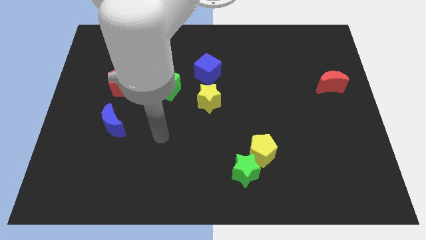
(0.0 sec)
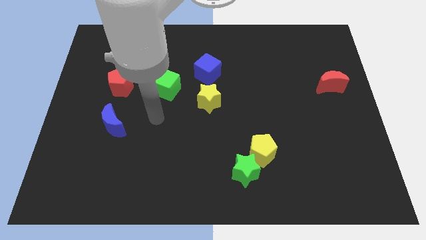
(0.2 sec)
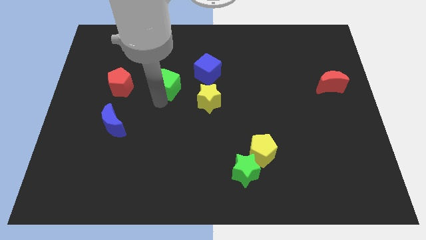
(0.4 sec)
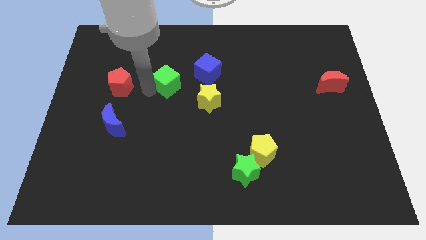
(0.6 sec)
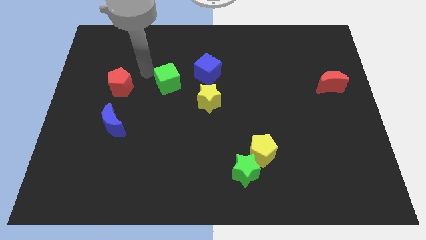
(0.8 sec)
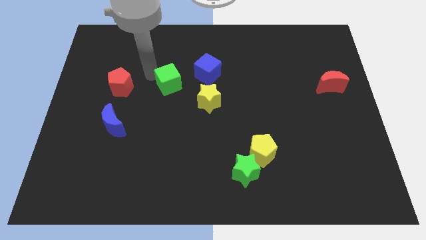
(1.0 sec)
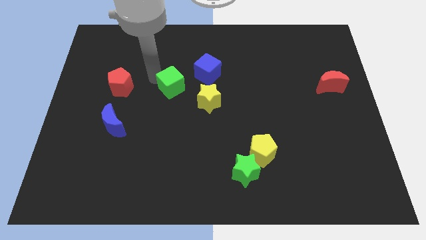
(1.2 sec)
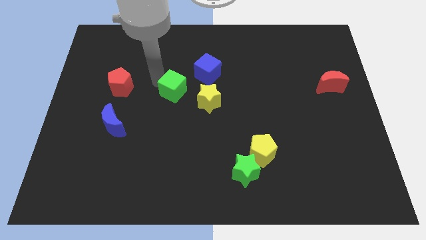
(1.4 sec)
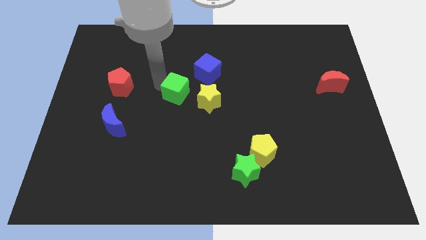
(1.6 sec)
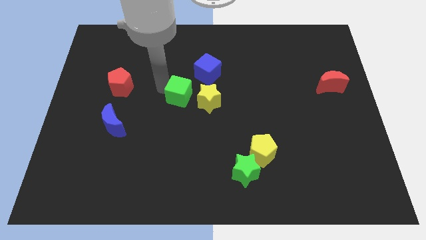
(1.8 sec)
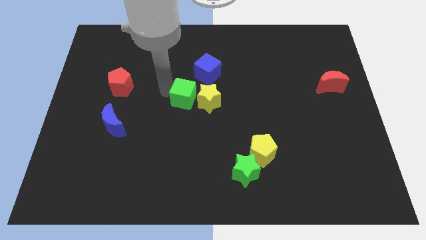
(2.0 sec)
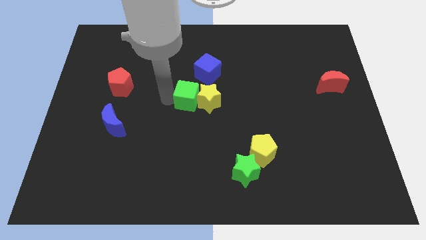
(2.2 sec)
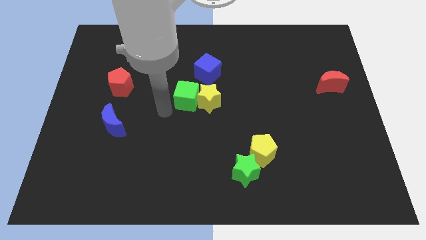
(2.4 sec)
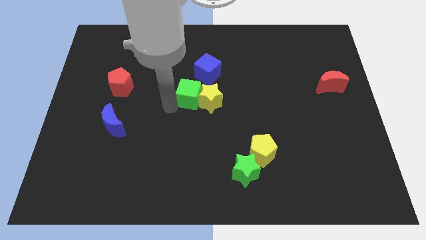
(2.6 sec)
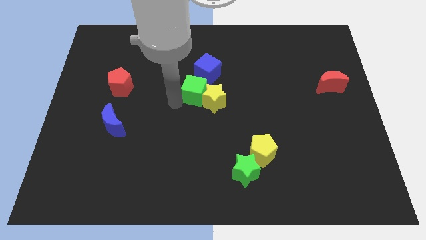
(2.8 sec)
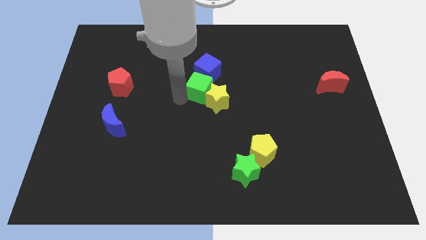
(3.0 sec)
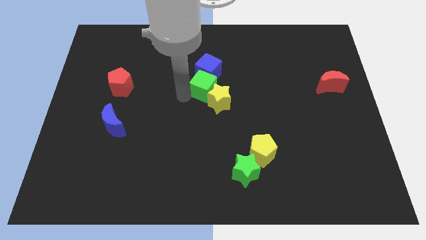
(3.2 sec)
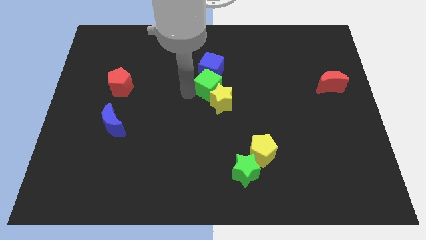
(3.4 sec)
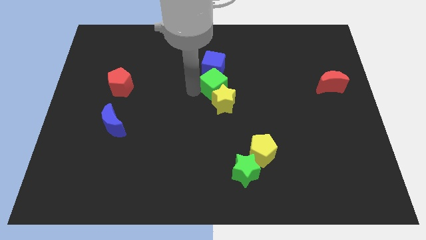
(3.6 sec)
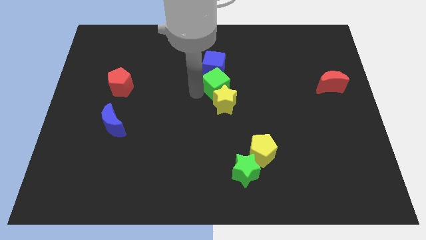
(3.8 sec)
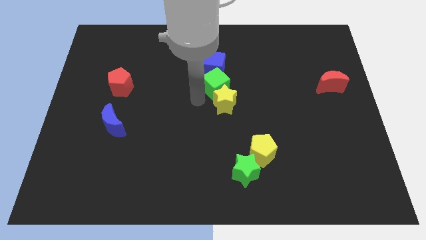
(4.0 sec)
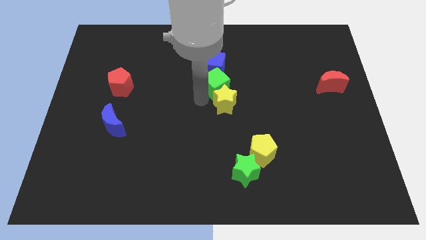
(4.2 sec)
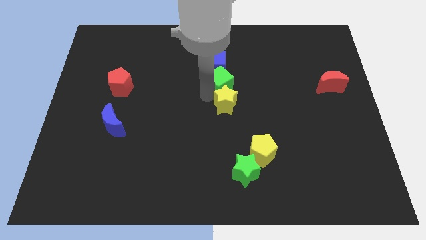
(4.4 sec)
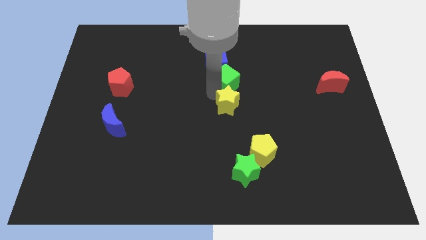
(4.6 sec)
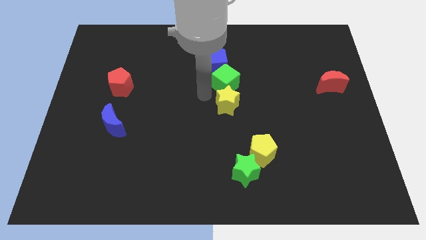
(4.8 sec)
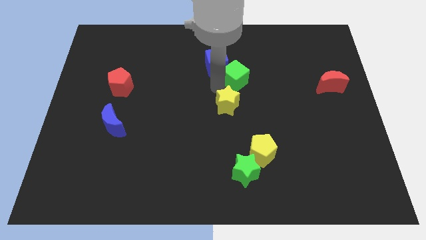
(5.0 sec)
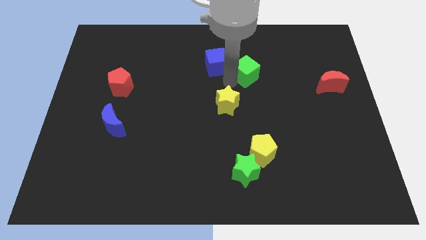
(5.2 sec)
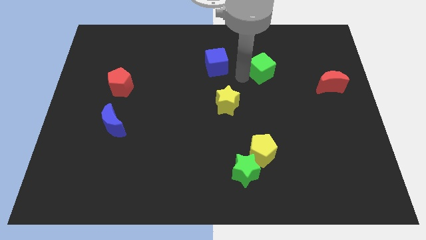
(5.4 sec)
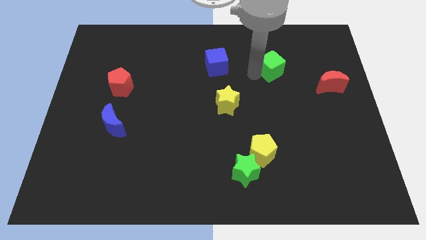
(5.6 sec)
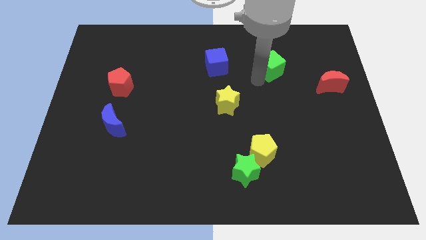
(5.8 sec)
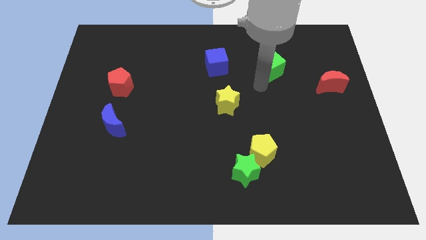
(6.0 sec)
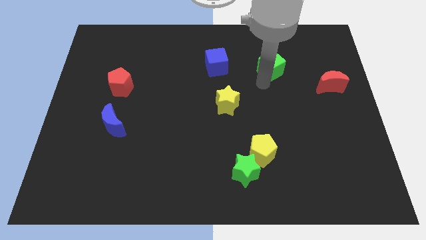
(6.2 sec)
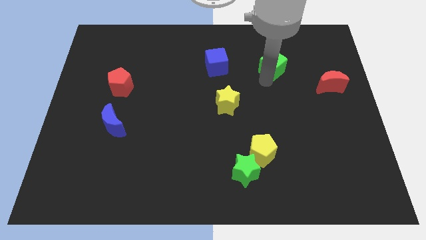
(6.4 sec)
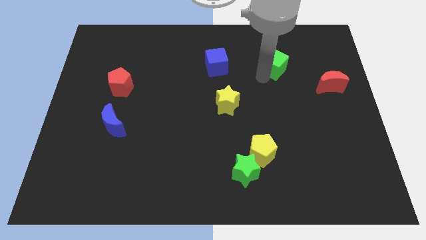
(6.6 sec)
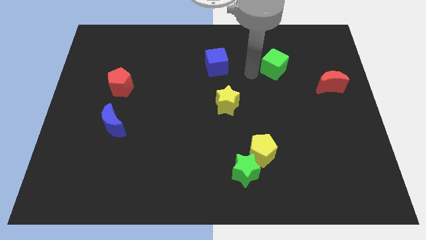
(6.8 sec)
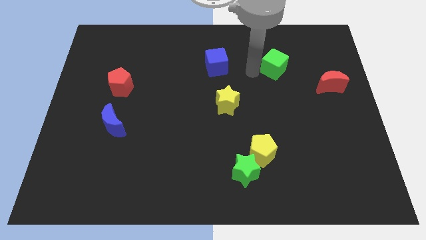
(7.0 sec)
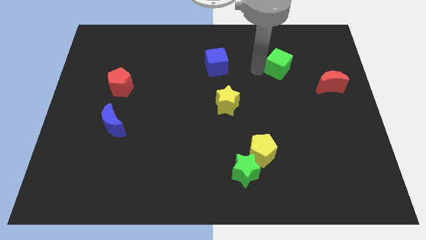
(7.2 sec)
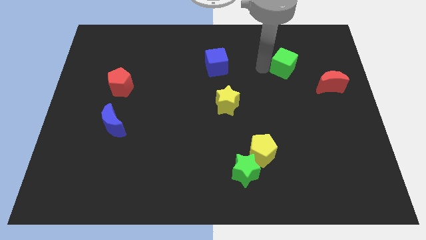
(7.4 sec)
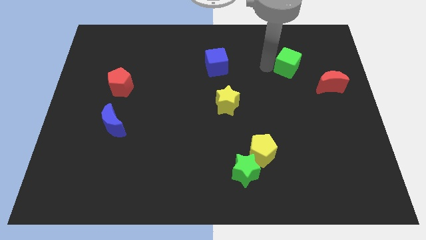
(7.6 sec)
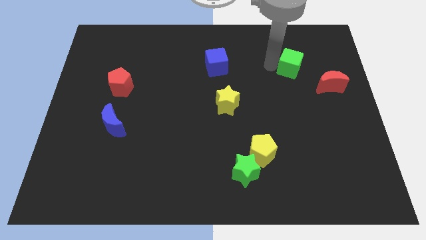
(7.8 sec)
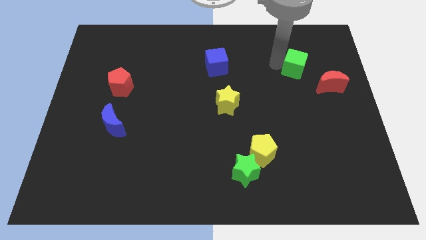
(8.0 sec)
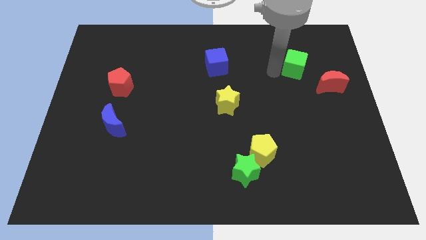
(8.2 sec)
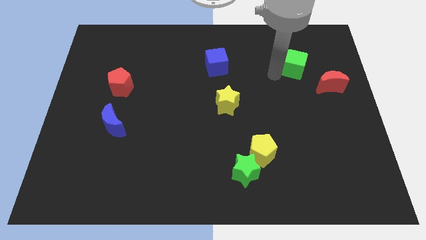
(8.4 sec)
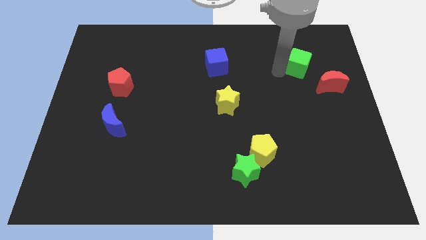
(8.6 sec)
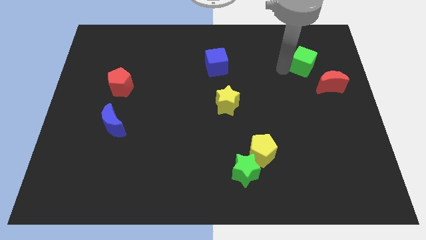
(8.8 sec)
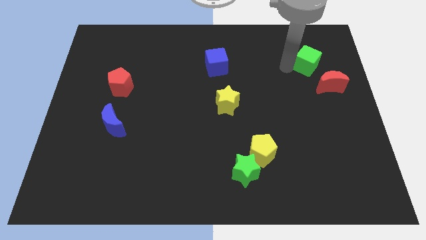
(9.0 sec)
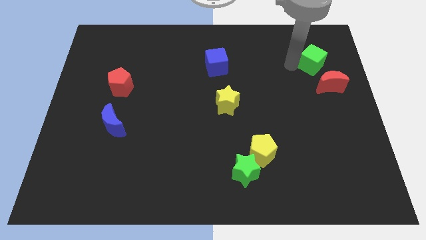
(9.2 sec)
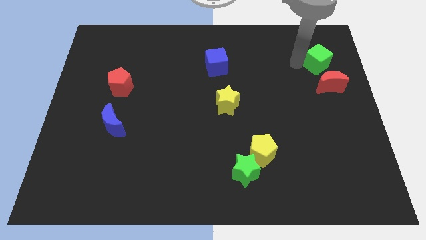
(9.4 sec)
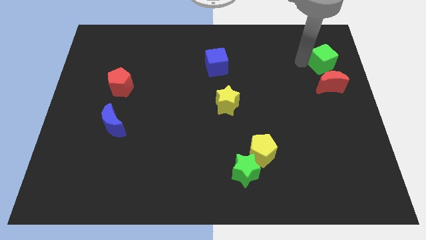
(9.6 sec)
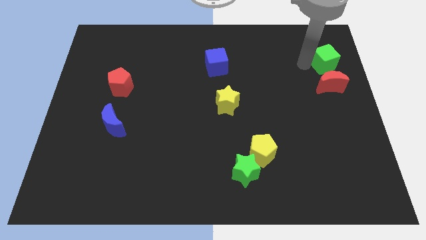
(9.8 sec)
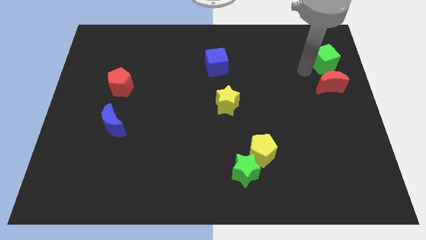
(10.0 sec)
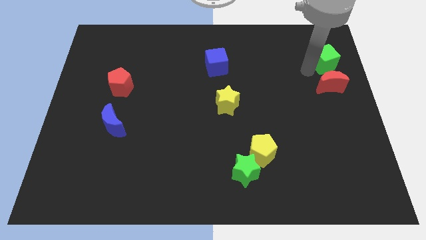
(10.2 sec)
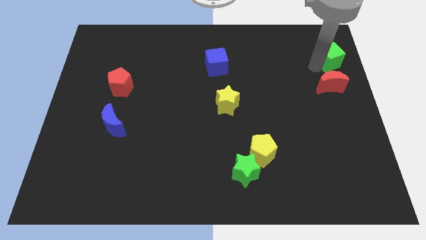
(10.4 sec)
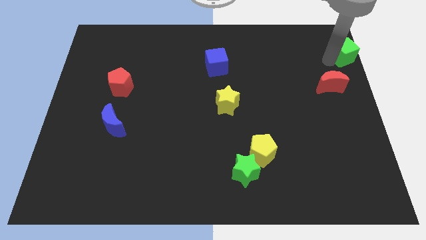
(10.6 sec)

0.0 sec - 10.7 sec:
slide the green cube to the upper right corner

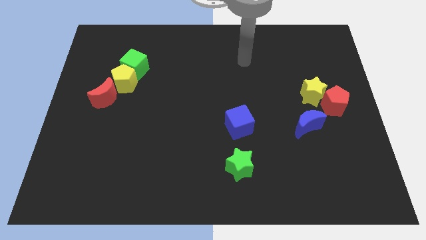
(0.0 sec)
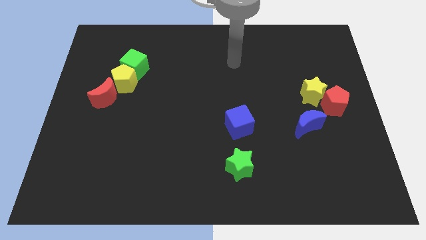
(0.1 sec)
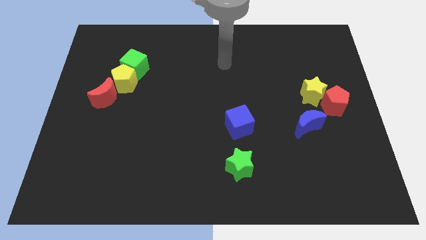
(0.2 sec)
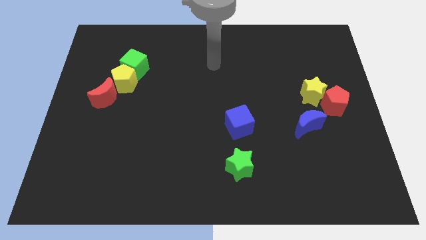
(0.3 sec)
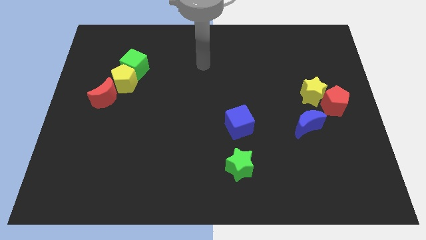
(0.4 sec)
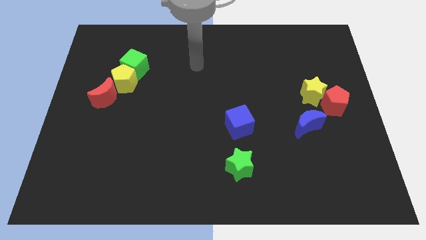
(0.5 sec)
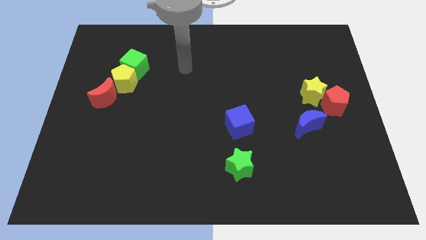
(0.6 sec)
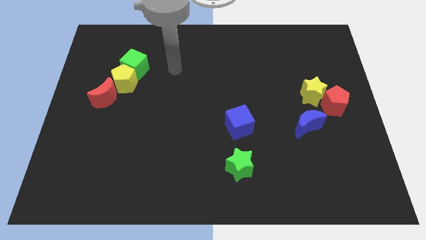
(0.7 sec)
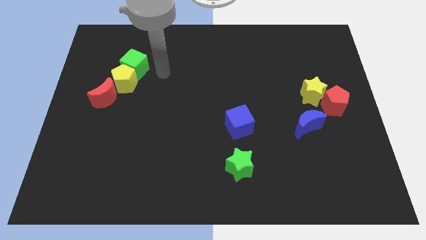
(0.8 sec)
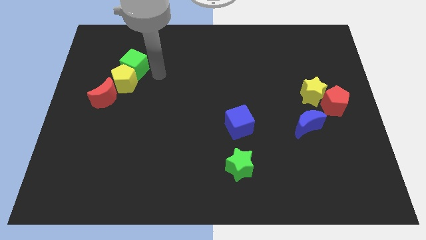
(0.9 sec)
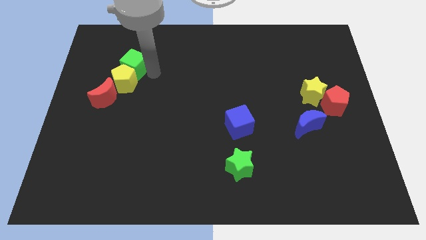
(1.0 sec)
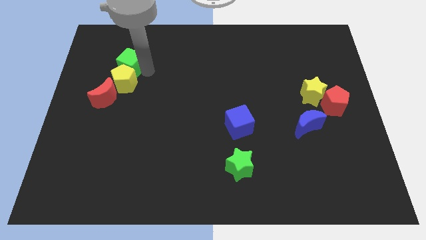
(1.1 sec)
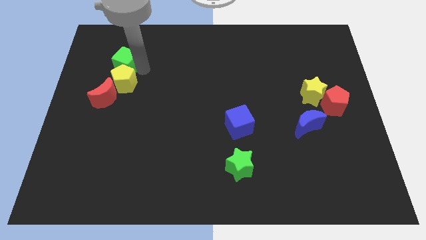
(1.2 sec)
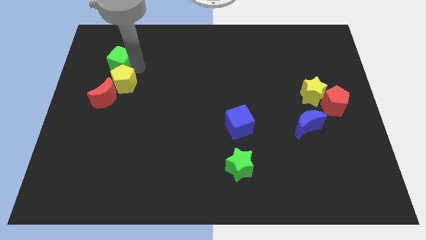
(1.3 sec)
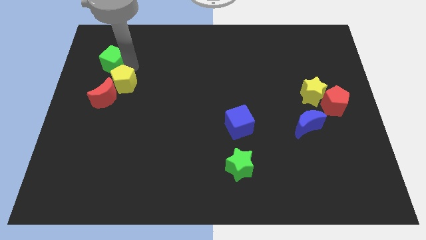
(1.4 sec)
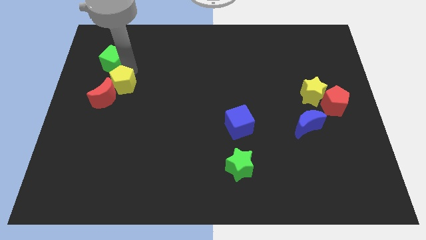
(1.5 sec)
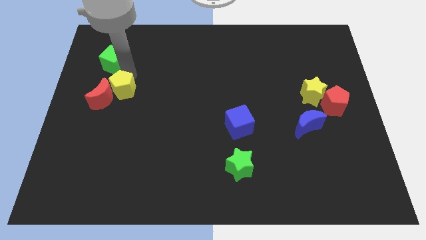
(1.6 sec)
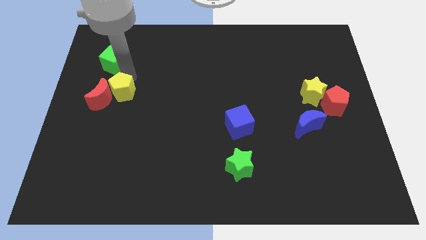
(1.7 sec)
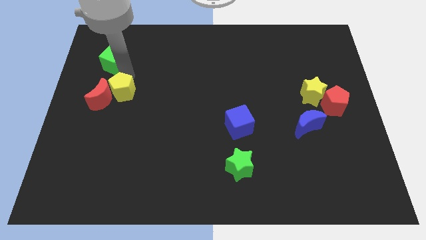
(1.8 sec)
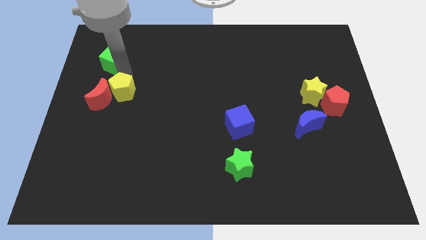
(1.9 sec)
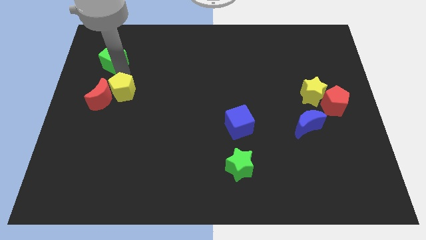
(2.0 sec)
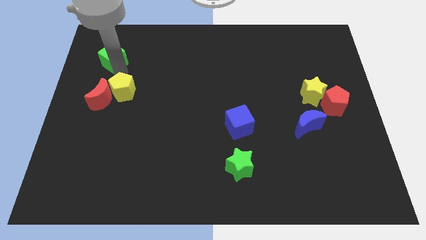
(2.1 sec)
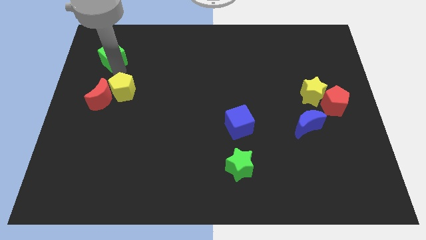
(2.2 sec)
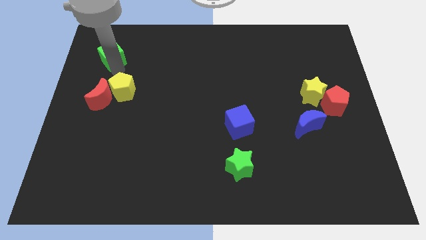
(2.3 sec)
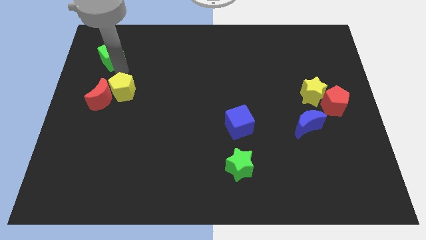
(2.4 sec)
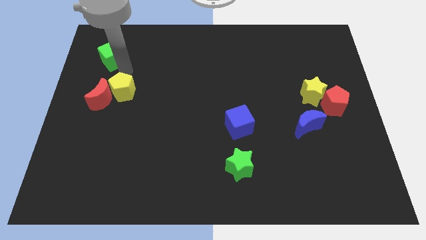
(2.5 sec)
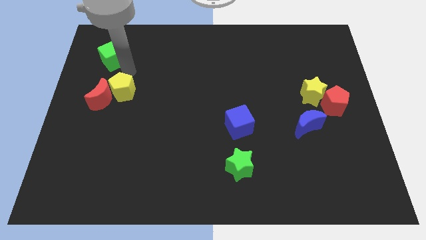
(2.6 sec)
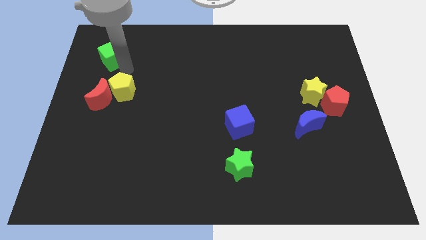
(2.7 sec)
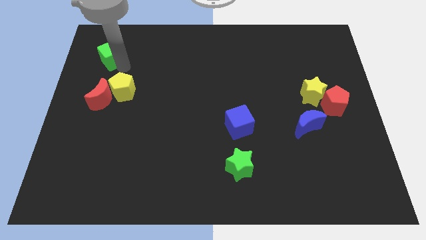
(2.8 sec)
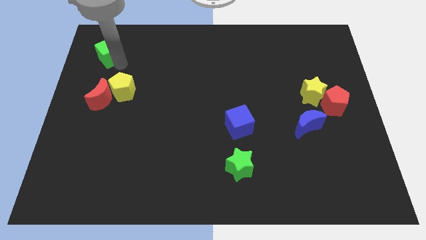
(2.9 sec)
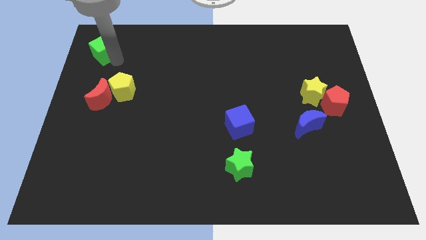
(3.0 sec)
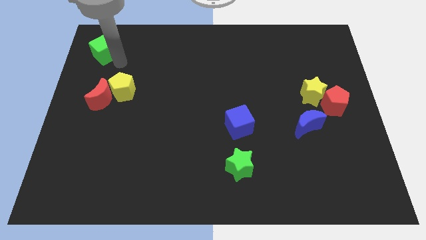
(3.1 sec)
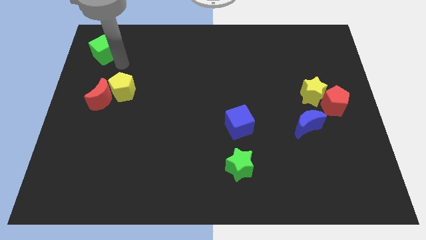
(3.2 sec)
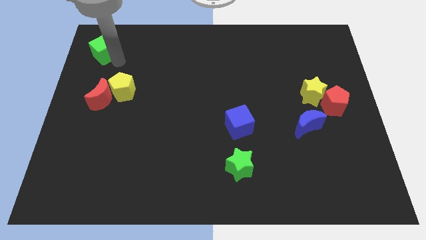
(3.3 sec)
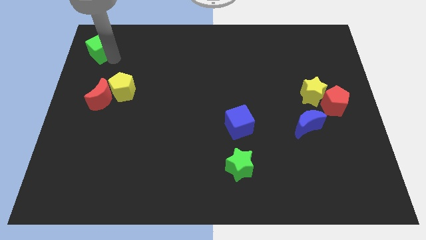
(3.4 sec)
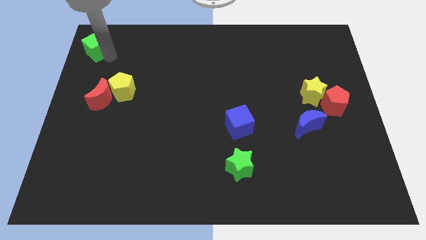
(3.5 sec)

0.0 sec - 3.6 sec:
move the green cube to the top left
